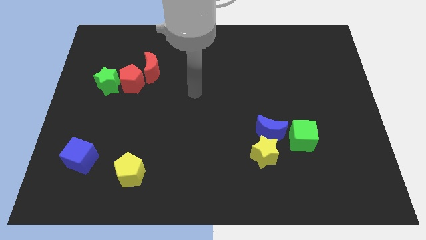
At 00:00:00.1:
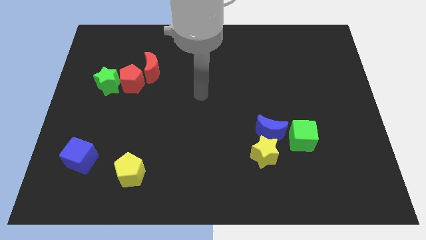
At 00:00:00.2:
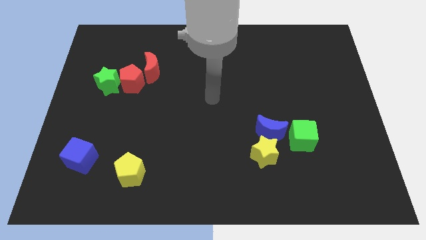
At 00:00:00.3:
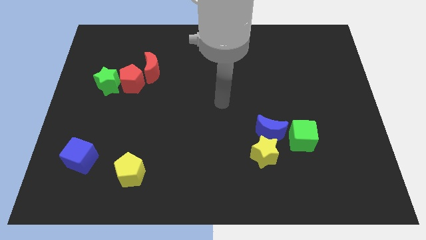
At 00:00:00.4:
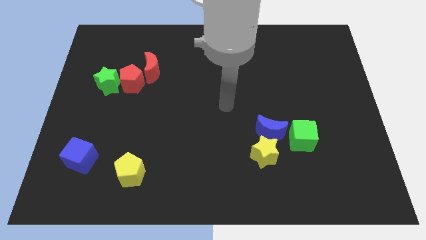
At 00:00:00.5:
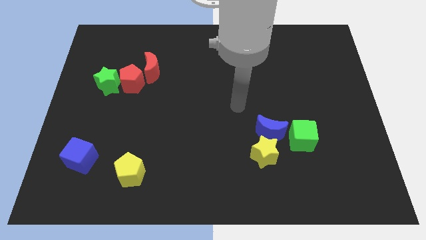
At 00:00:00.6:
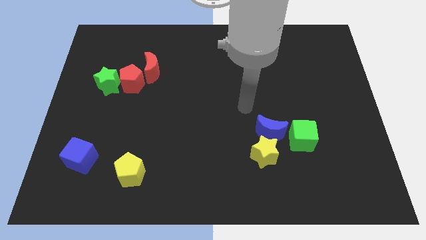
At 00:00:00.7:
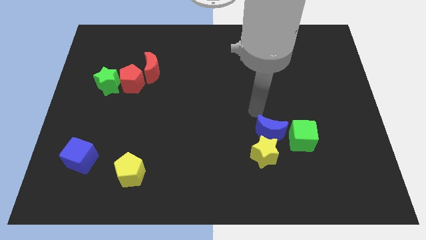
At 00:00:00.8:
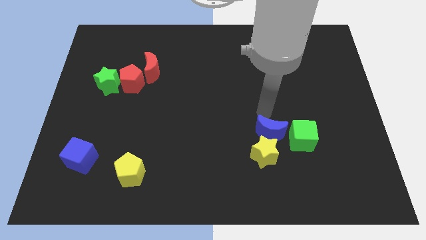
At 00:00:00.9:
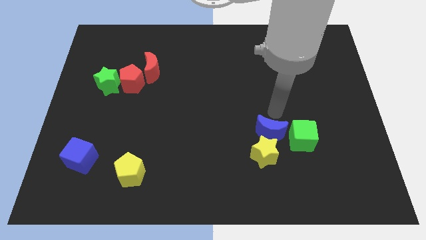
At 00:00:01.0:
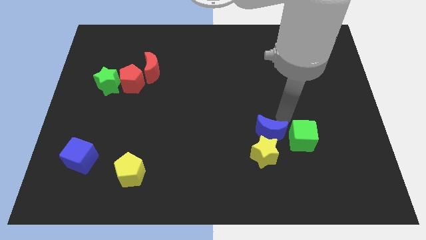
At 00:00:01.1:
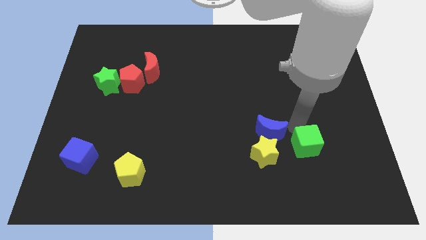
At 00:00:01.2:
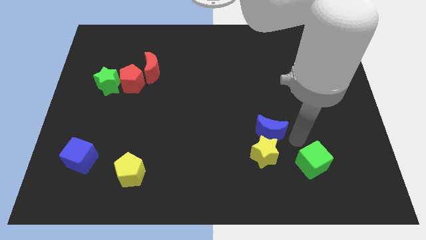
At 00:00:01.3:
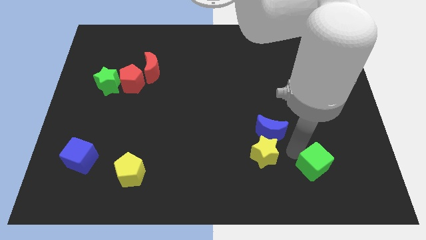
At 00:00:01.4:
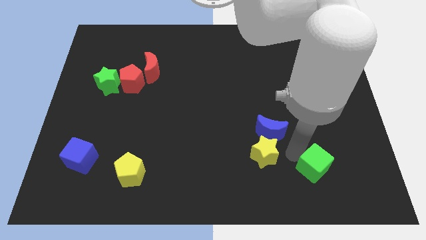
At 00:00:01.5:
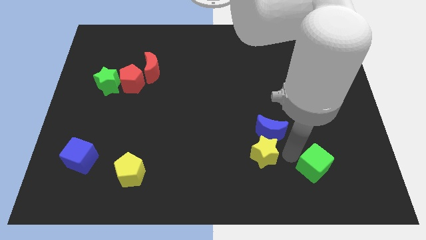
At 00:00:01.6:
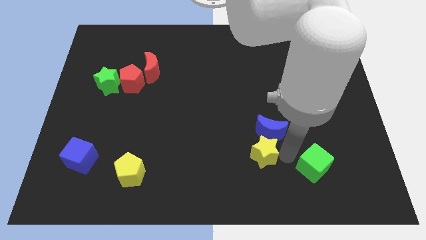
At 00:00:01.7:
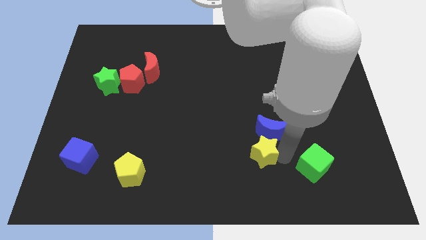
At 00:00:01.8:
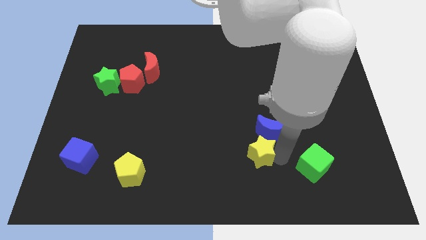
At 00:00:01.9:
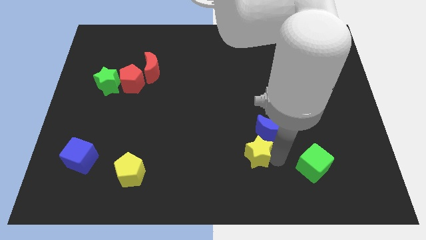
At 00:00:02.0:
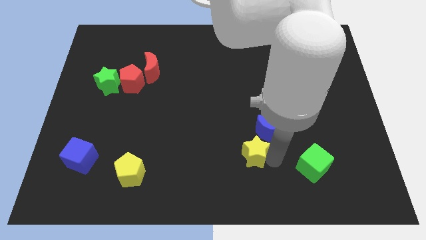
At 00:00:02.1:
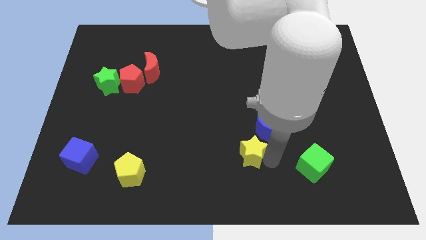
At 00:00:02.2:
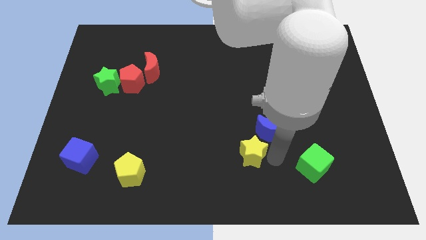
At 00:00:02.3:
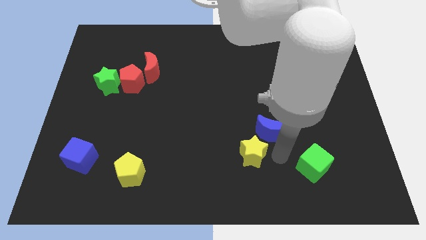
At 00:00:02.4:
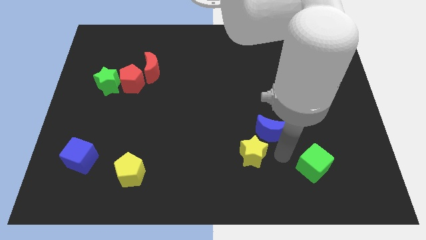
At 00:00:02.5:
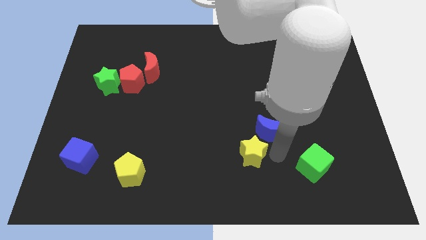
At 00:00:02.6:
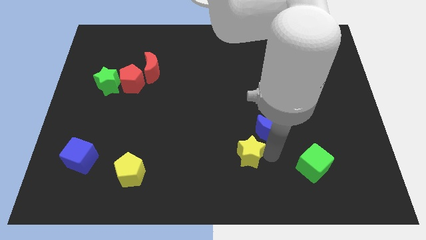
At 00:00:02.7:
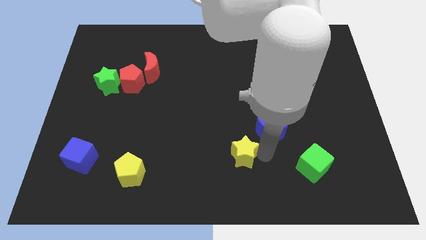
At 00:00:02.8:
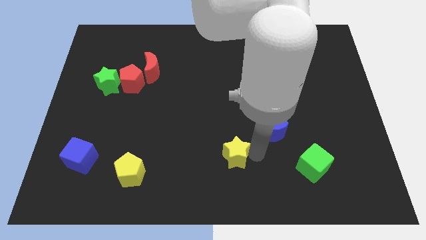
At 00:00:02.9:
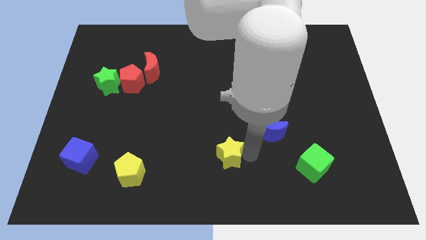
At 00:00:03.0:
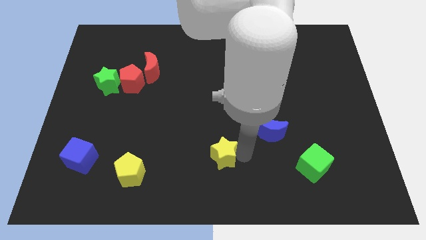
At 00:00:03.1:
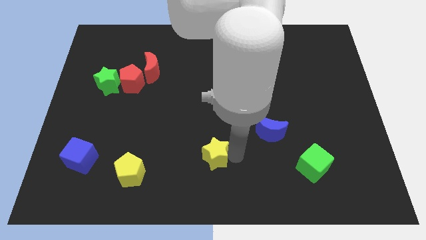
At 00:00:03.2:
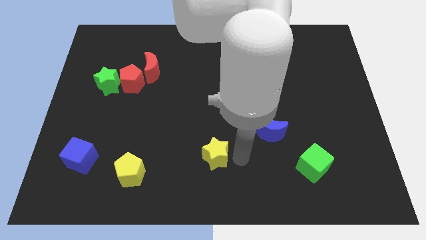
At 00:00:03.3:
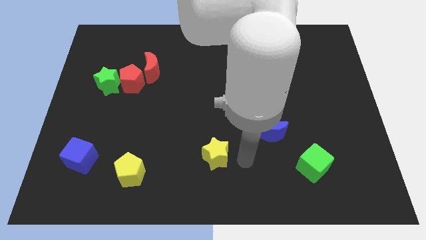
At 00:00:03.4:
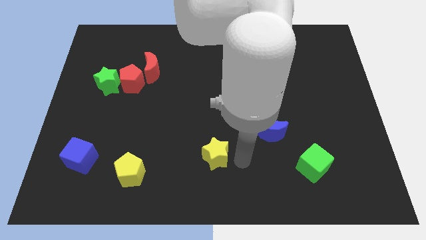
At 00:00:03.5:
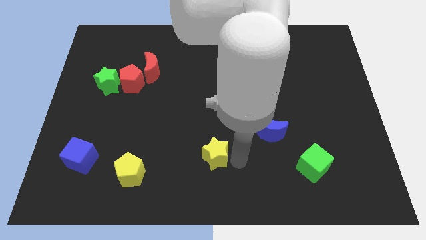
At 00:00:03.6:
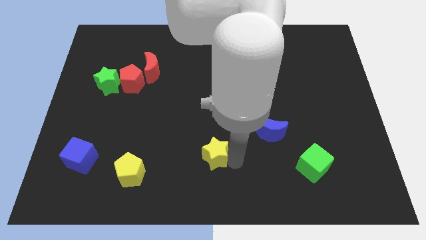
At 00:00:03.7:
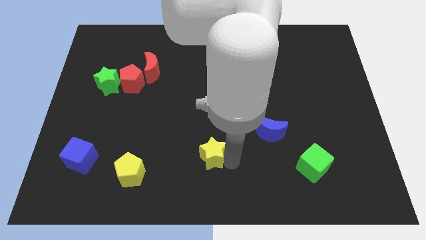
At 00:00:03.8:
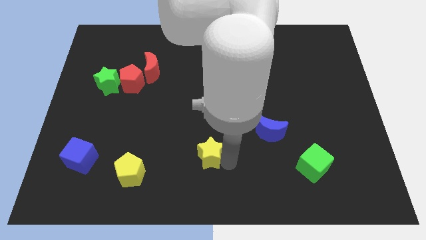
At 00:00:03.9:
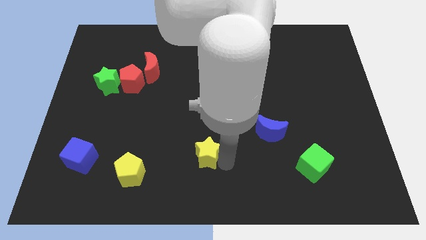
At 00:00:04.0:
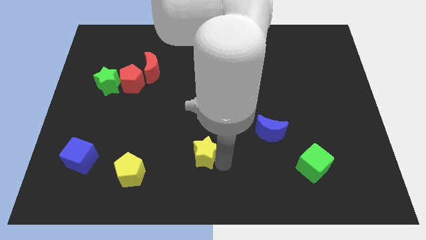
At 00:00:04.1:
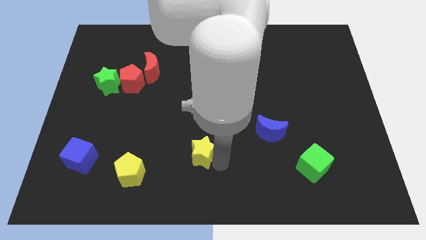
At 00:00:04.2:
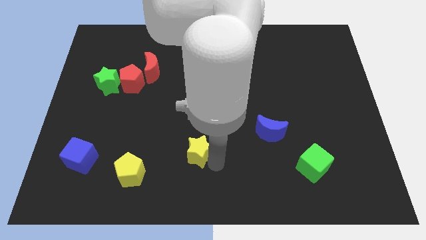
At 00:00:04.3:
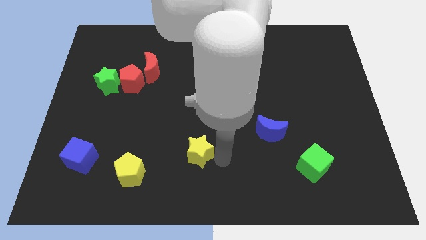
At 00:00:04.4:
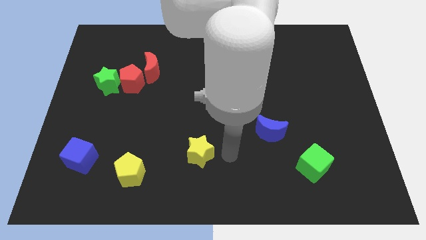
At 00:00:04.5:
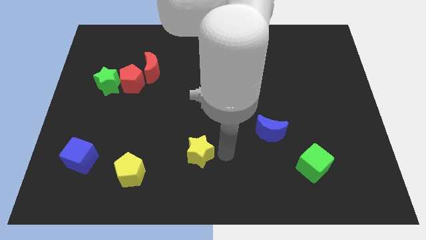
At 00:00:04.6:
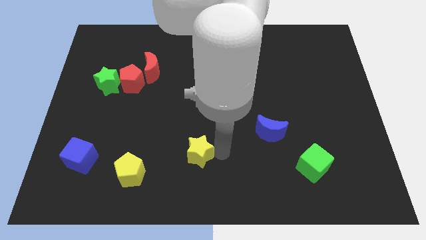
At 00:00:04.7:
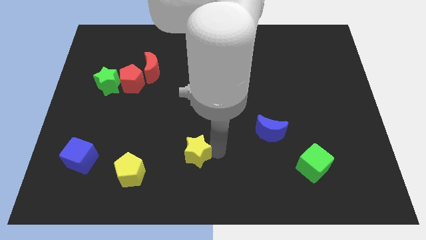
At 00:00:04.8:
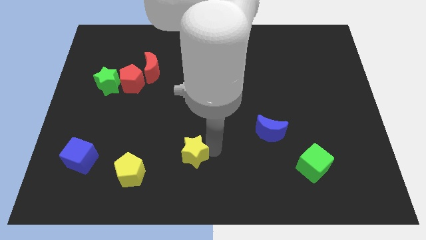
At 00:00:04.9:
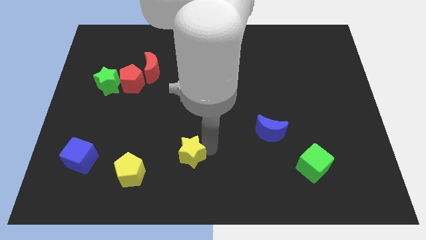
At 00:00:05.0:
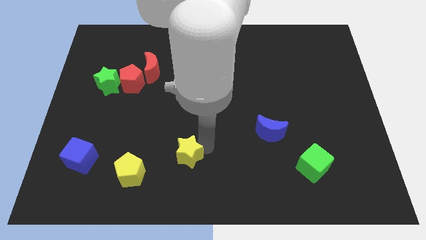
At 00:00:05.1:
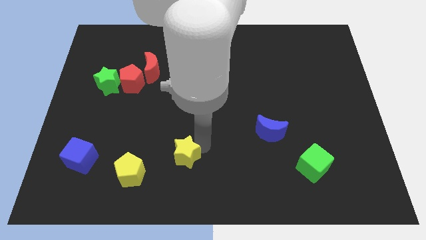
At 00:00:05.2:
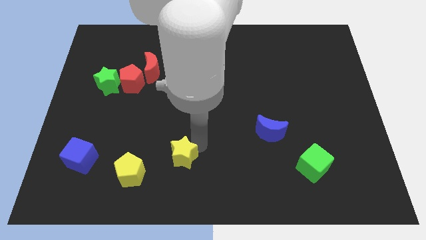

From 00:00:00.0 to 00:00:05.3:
move the yellow star to the top right side of the yellow pentagon

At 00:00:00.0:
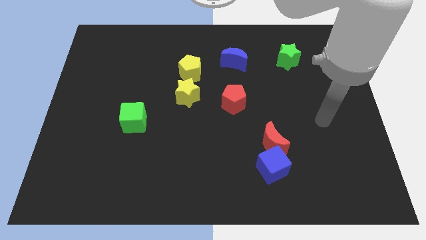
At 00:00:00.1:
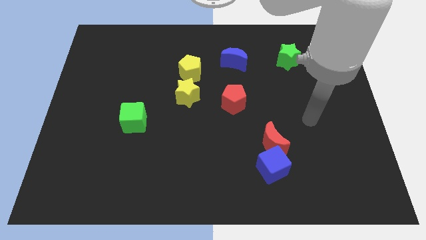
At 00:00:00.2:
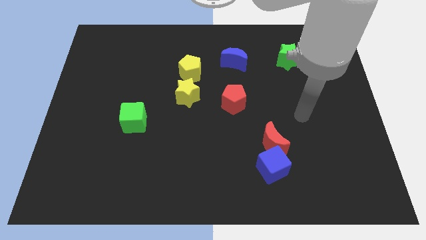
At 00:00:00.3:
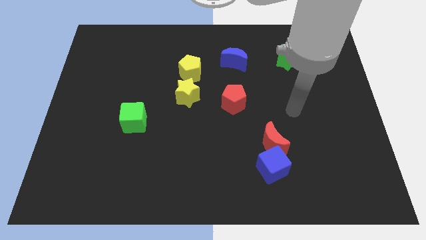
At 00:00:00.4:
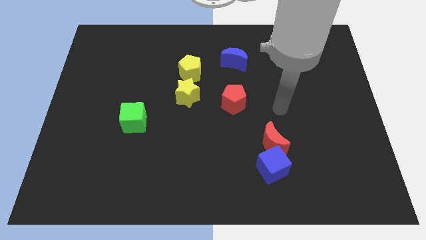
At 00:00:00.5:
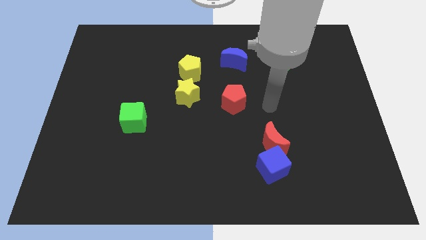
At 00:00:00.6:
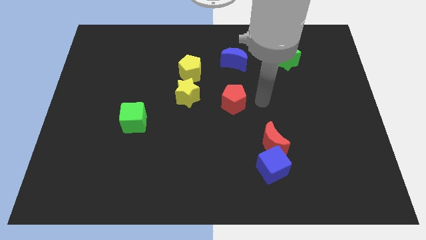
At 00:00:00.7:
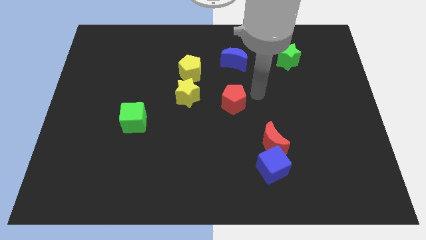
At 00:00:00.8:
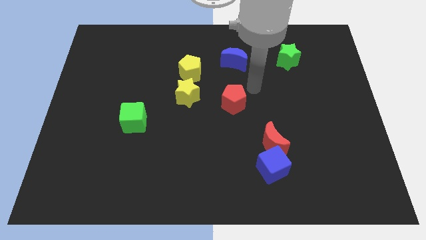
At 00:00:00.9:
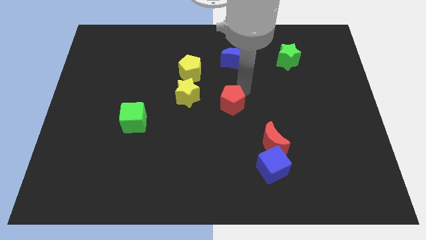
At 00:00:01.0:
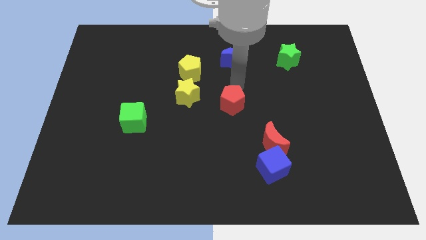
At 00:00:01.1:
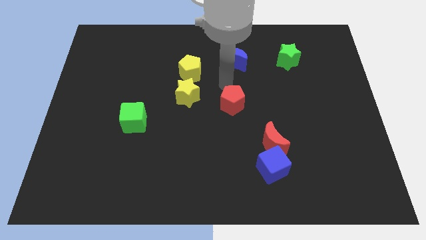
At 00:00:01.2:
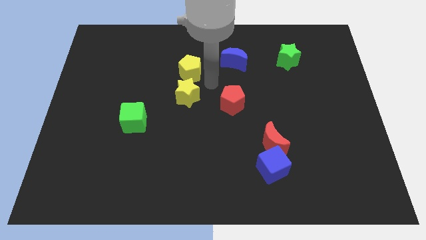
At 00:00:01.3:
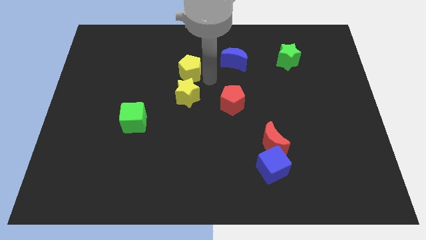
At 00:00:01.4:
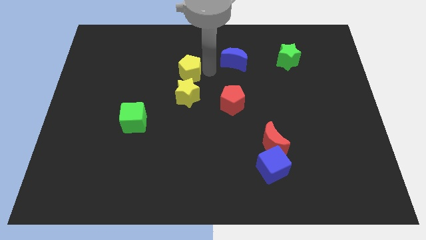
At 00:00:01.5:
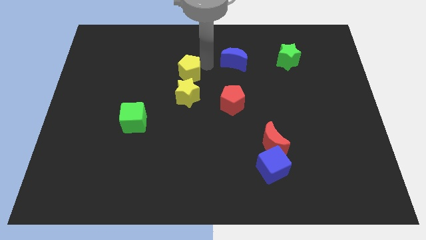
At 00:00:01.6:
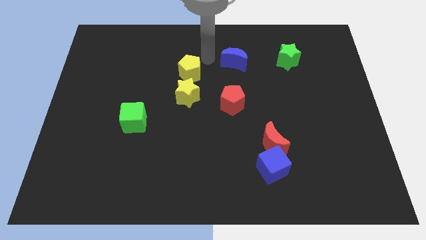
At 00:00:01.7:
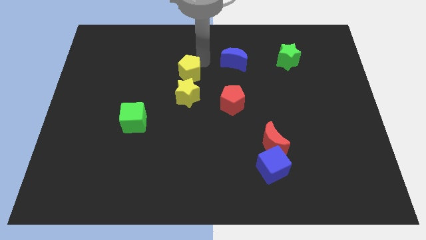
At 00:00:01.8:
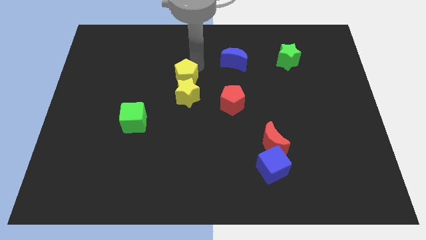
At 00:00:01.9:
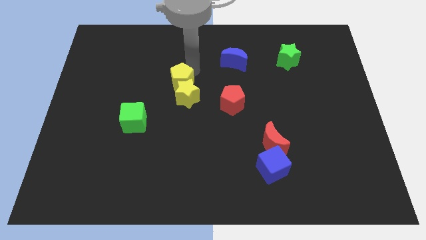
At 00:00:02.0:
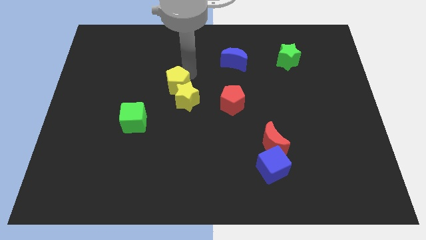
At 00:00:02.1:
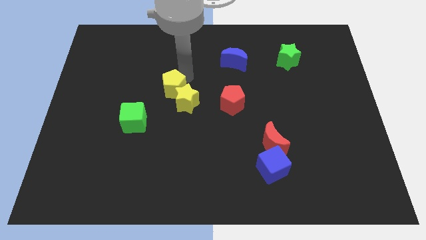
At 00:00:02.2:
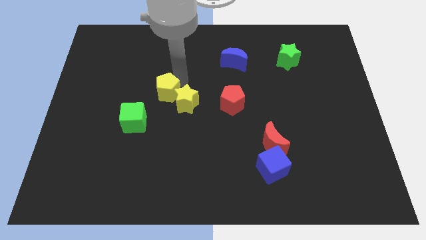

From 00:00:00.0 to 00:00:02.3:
put the yellow pentagon diagonally up and to the right of the green cube
